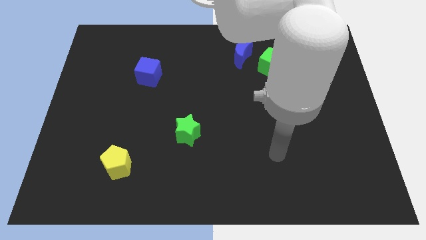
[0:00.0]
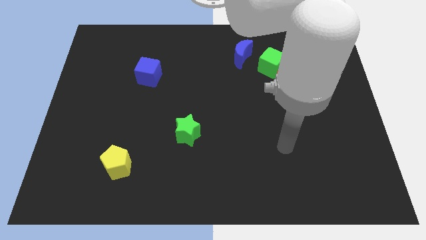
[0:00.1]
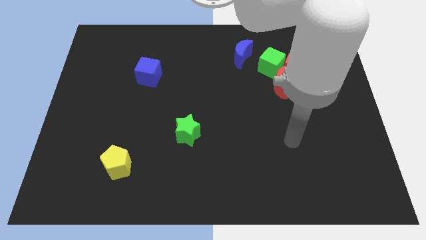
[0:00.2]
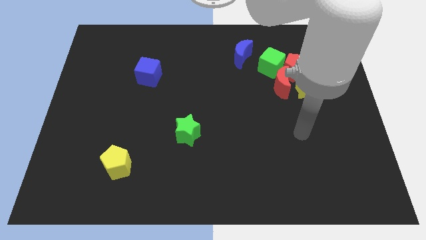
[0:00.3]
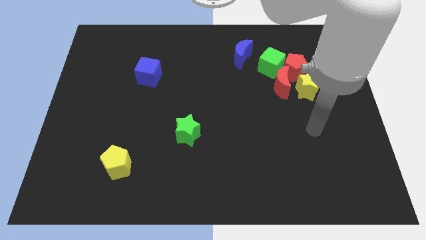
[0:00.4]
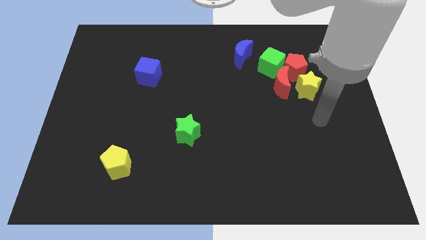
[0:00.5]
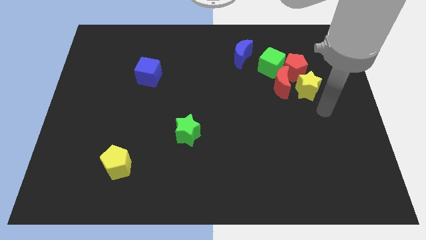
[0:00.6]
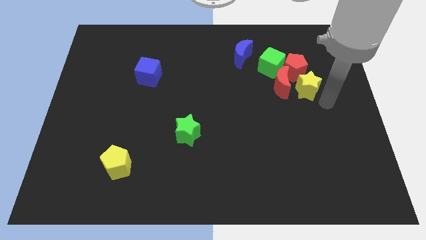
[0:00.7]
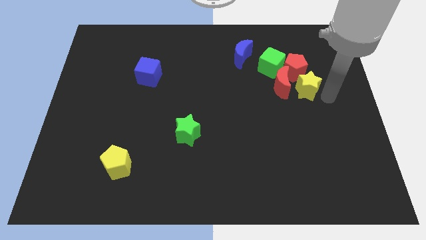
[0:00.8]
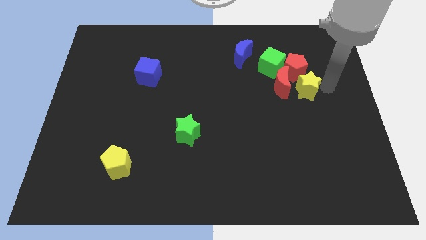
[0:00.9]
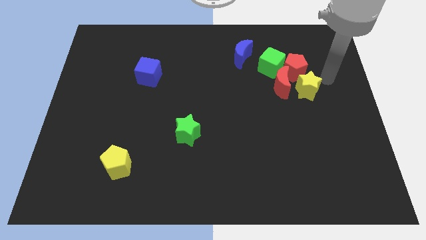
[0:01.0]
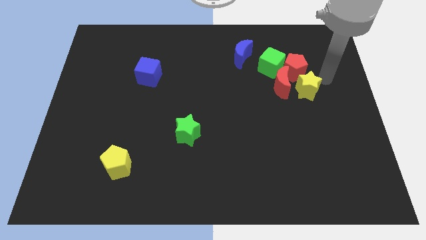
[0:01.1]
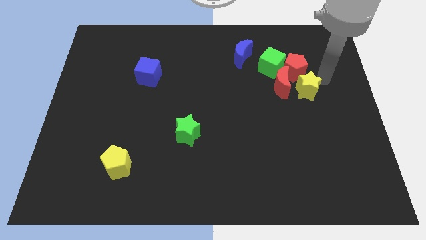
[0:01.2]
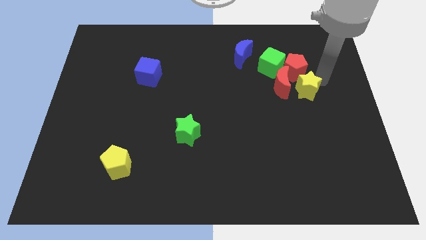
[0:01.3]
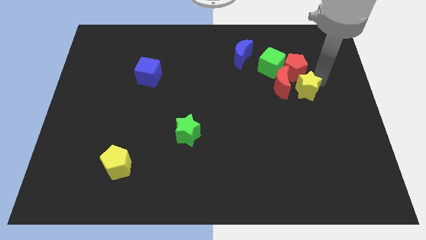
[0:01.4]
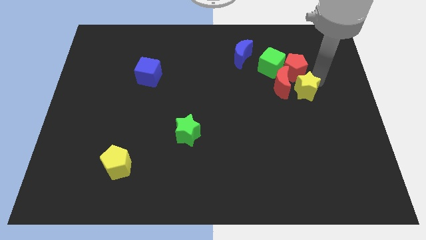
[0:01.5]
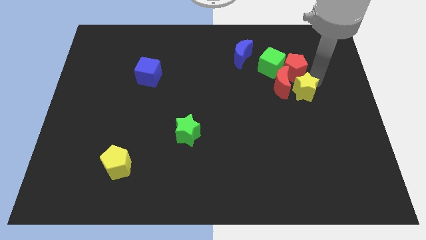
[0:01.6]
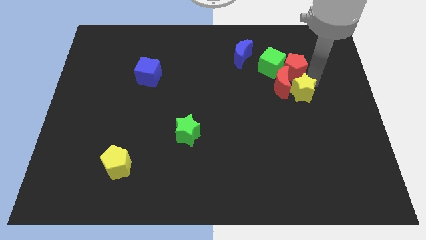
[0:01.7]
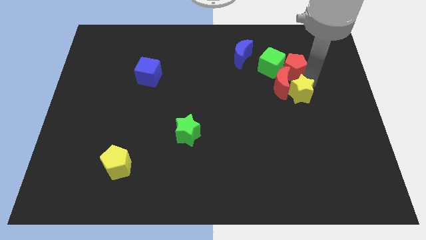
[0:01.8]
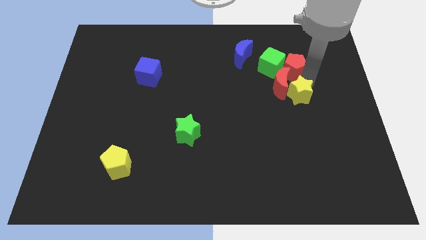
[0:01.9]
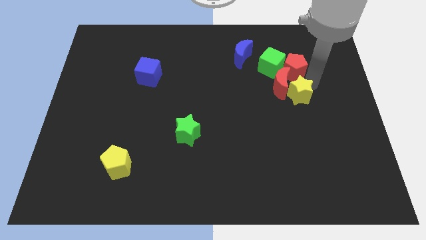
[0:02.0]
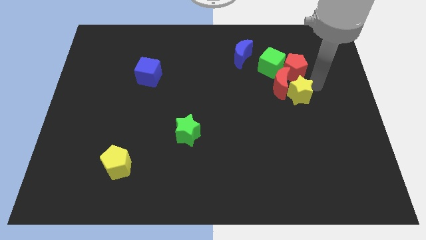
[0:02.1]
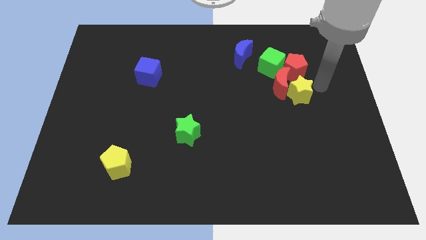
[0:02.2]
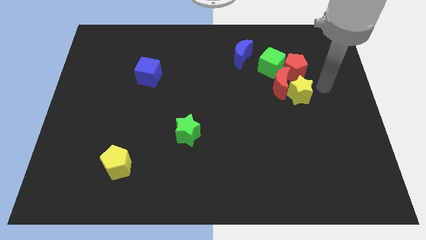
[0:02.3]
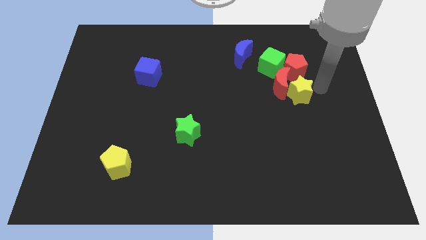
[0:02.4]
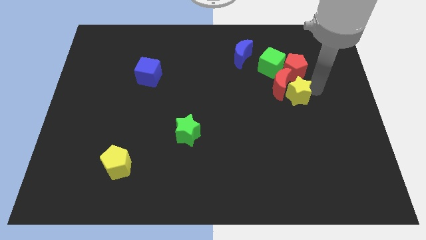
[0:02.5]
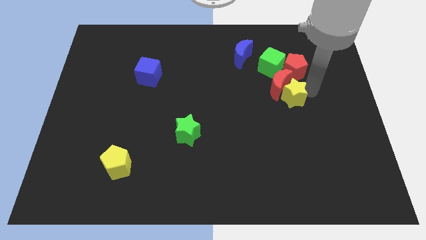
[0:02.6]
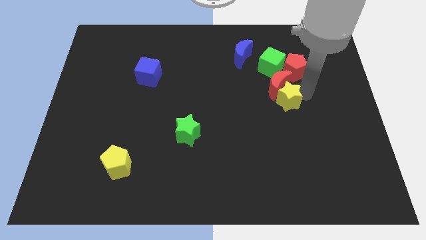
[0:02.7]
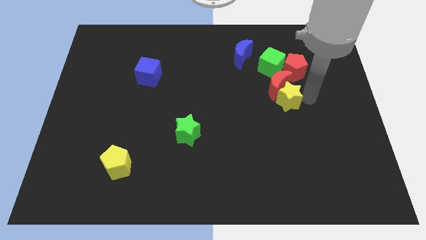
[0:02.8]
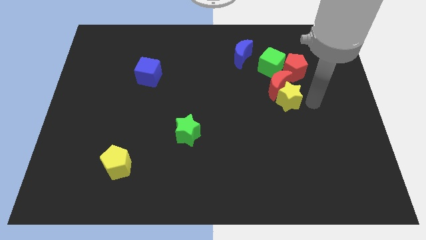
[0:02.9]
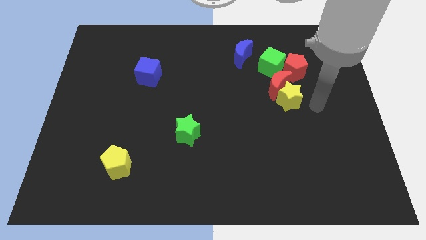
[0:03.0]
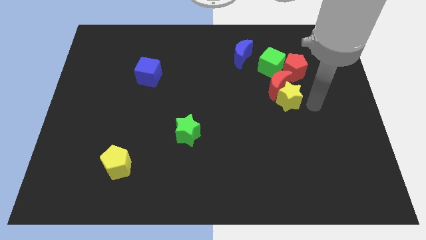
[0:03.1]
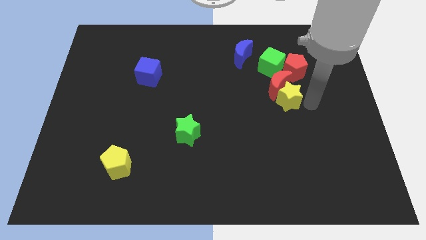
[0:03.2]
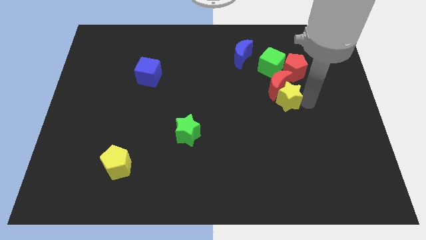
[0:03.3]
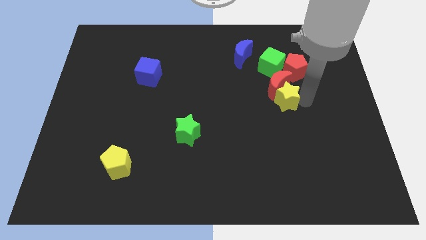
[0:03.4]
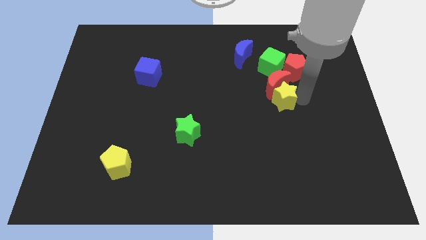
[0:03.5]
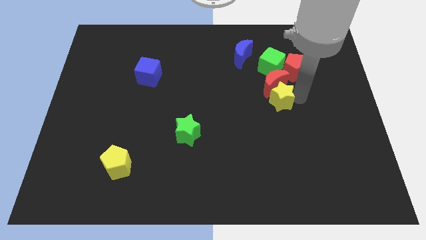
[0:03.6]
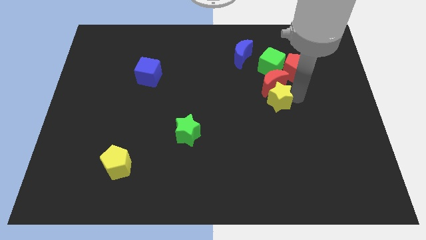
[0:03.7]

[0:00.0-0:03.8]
move the yellow star left a bit

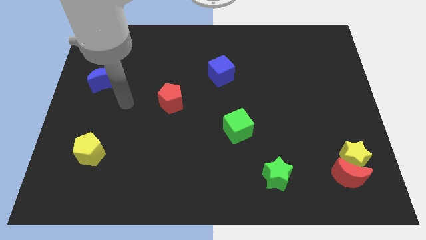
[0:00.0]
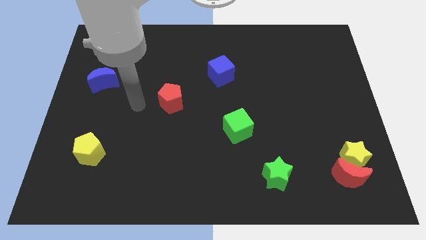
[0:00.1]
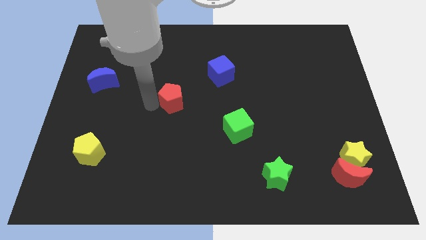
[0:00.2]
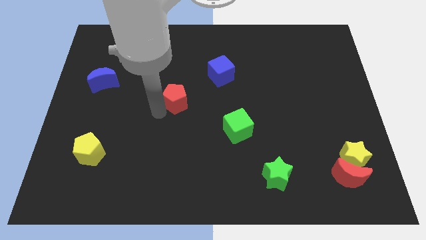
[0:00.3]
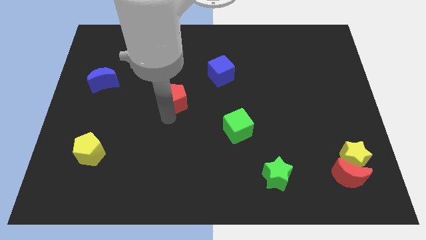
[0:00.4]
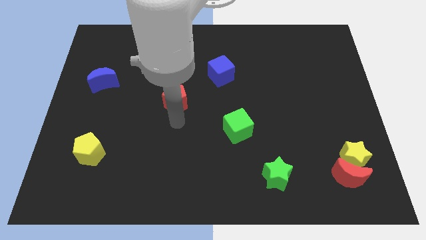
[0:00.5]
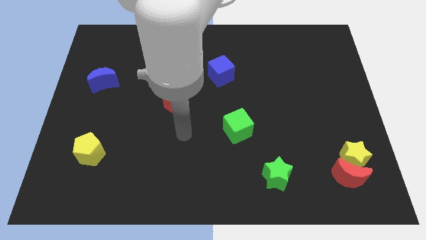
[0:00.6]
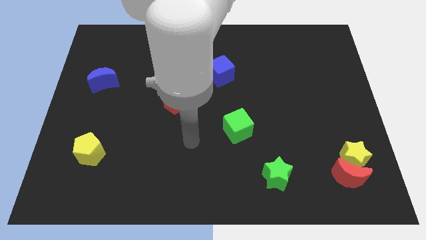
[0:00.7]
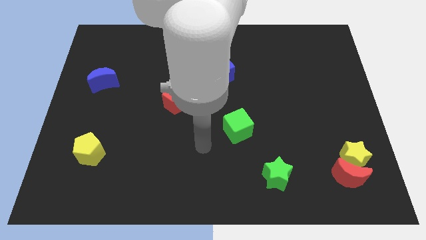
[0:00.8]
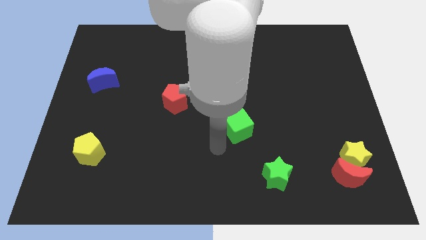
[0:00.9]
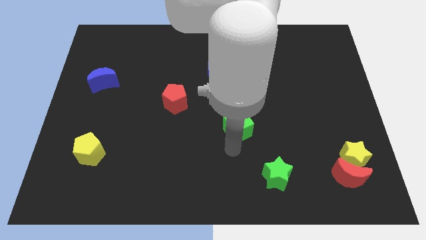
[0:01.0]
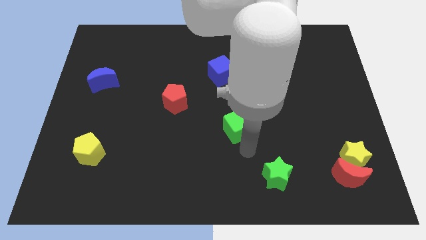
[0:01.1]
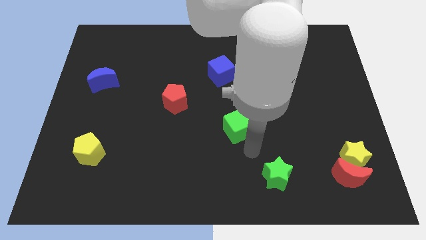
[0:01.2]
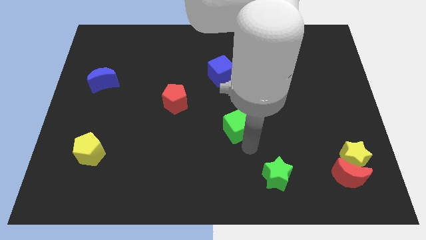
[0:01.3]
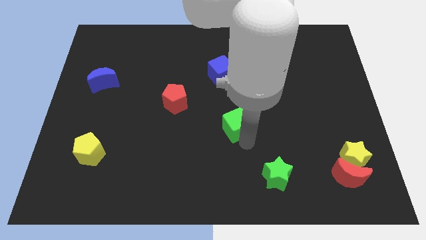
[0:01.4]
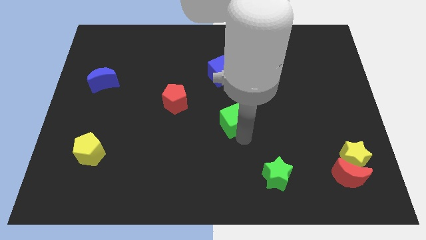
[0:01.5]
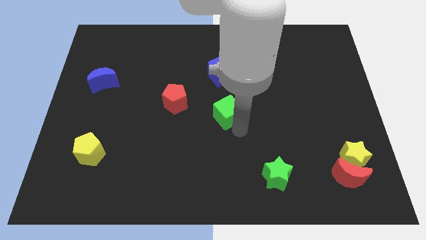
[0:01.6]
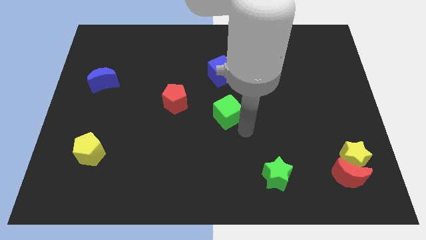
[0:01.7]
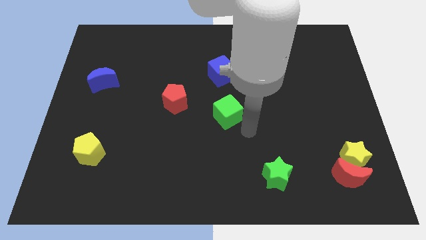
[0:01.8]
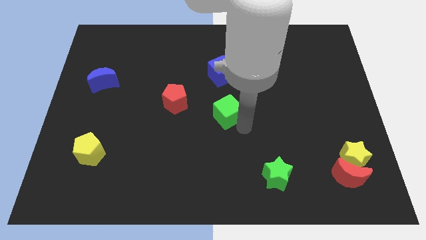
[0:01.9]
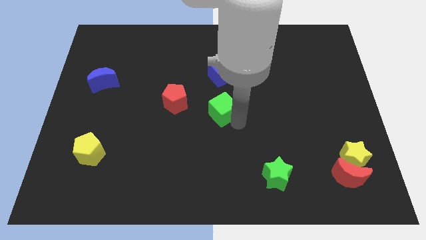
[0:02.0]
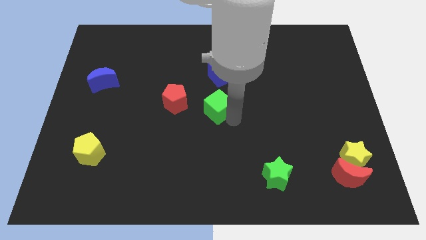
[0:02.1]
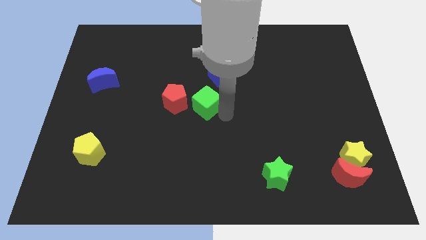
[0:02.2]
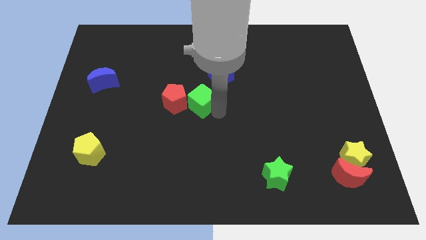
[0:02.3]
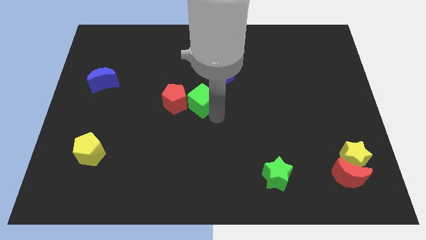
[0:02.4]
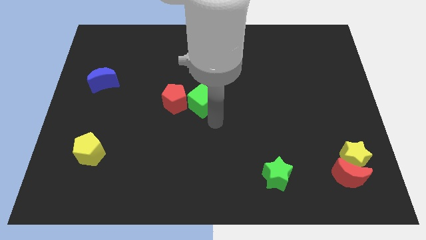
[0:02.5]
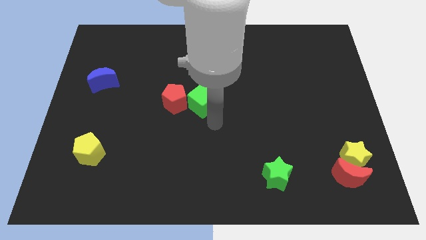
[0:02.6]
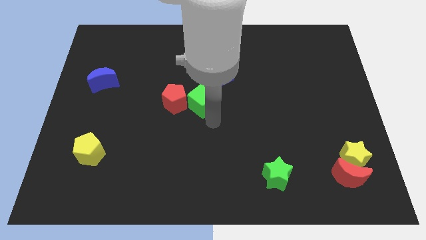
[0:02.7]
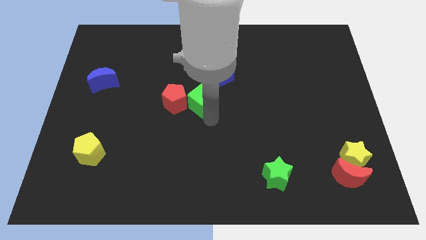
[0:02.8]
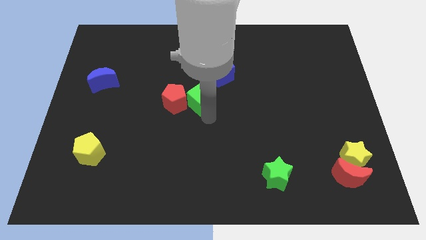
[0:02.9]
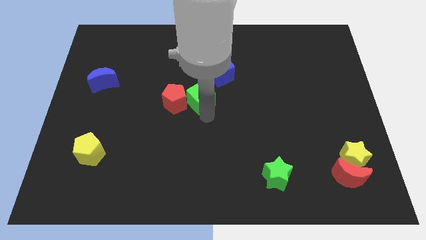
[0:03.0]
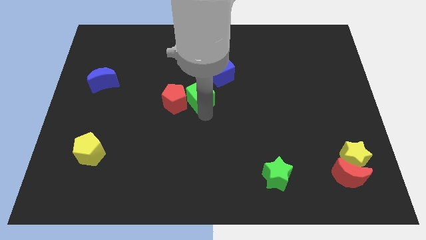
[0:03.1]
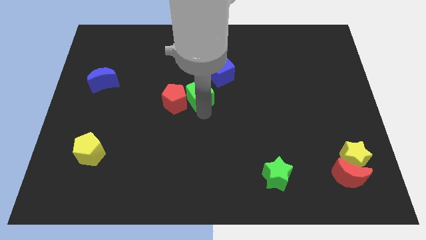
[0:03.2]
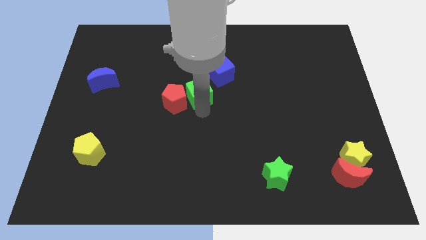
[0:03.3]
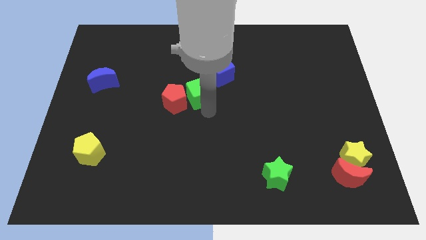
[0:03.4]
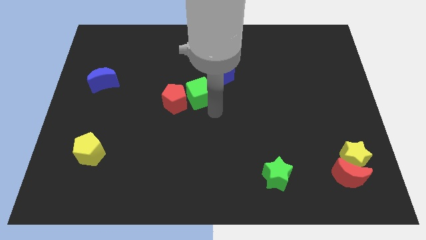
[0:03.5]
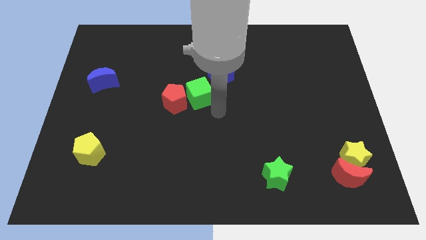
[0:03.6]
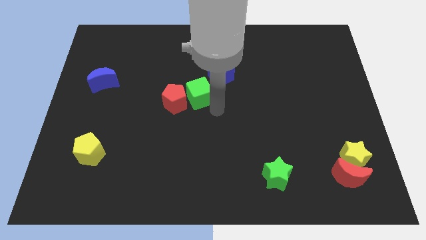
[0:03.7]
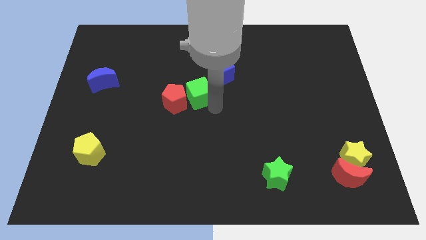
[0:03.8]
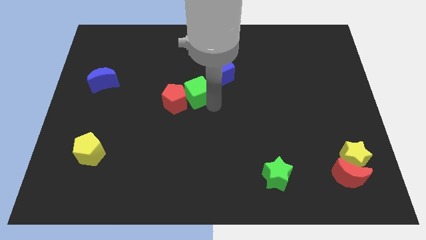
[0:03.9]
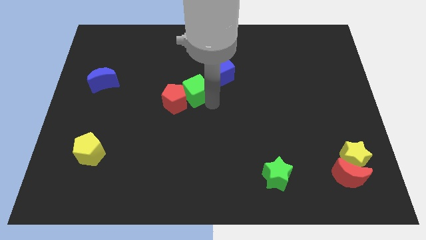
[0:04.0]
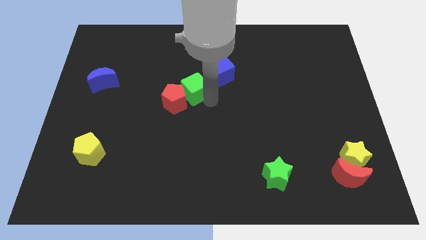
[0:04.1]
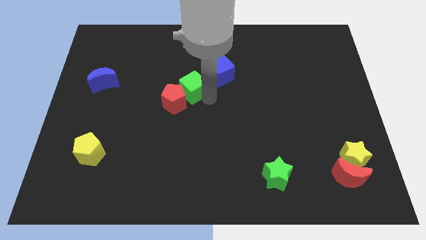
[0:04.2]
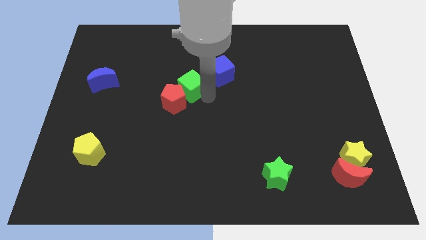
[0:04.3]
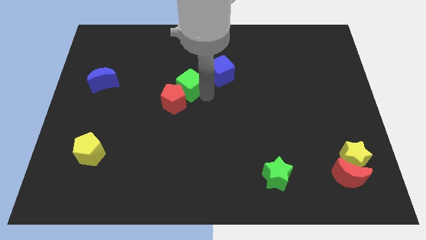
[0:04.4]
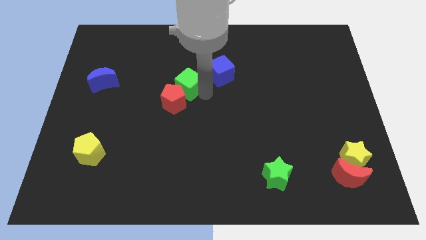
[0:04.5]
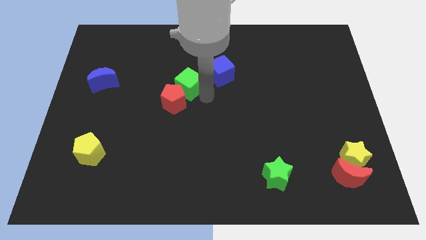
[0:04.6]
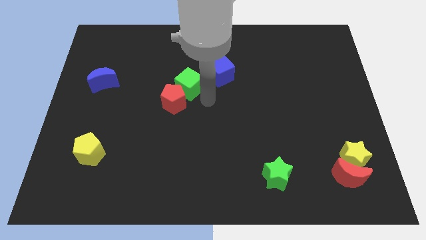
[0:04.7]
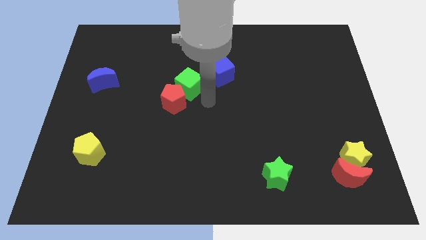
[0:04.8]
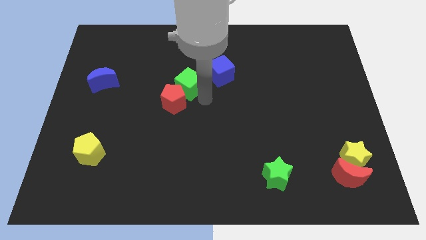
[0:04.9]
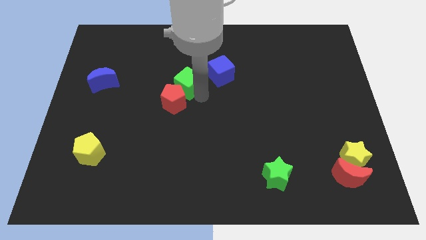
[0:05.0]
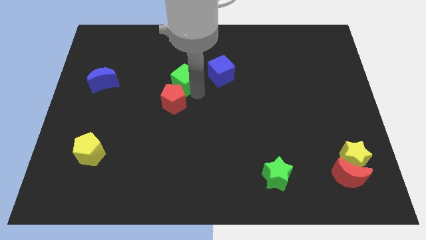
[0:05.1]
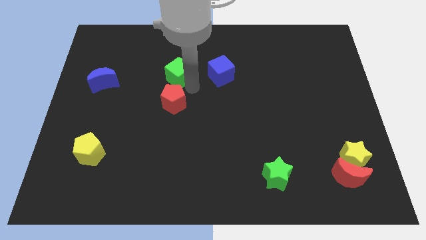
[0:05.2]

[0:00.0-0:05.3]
move the green cube up and to the left diagonally
